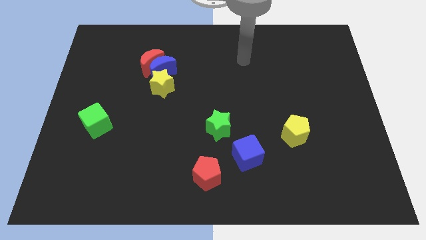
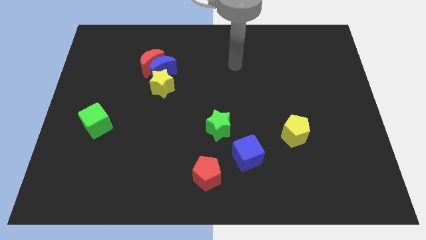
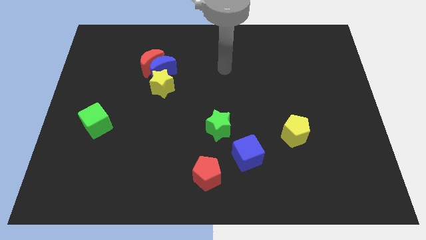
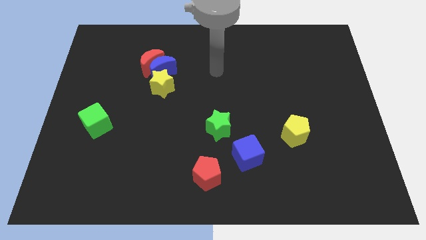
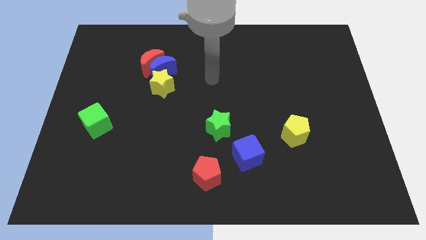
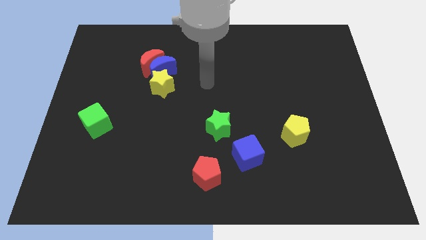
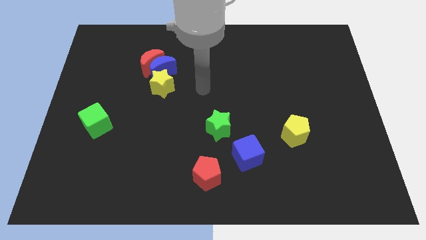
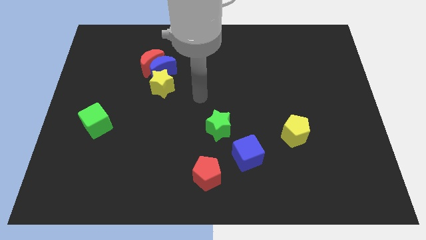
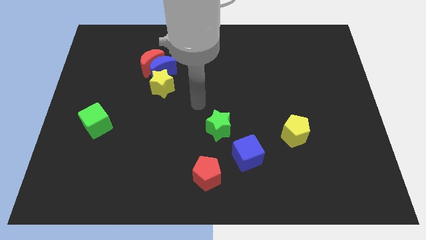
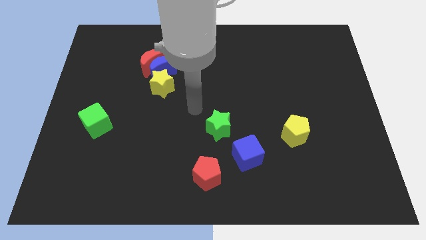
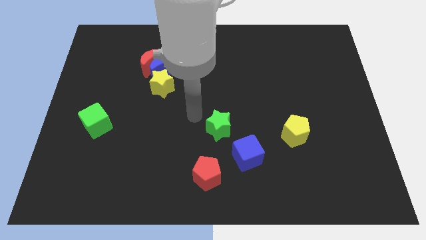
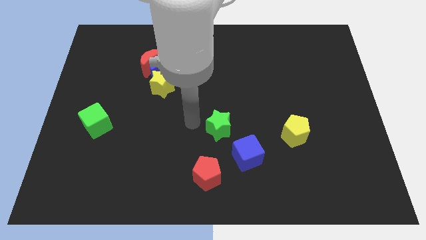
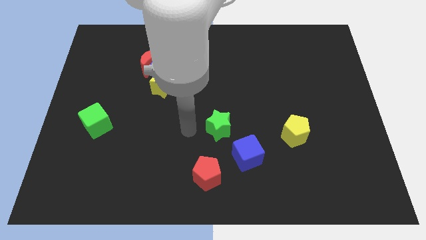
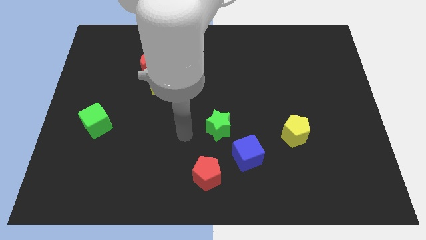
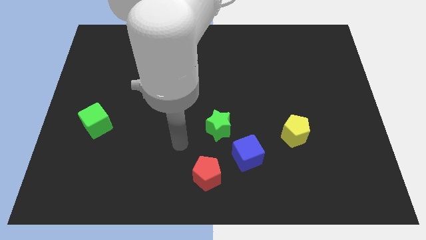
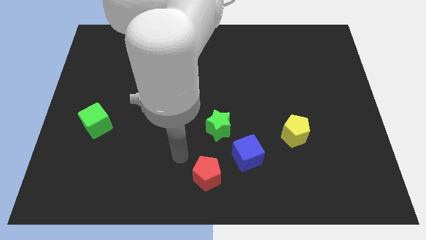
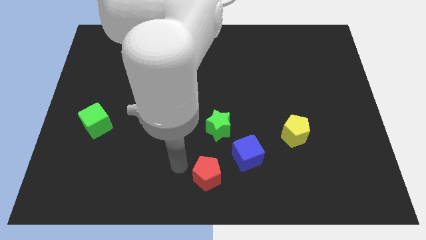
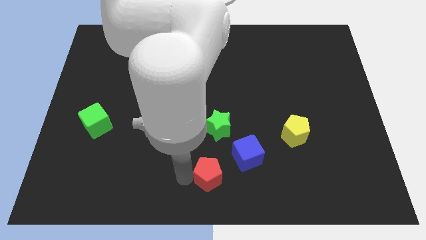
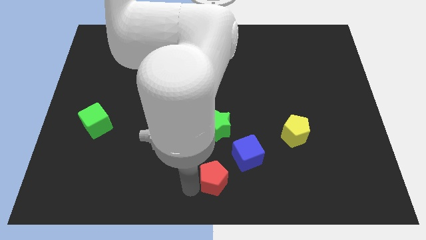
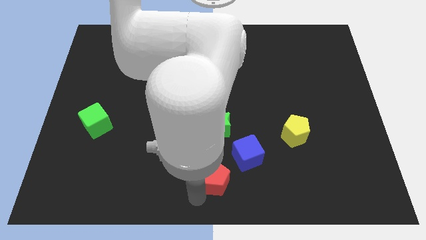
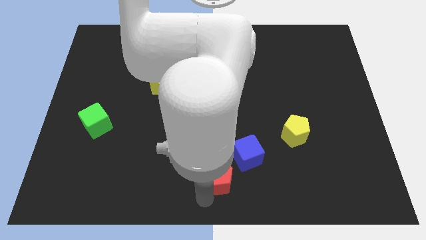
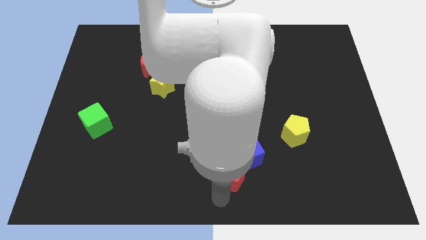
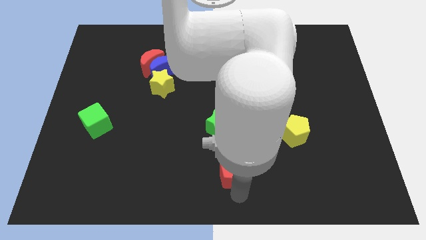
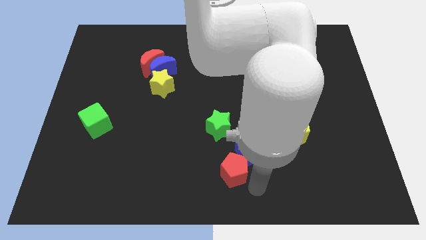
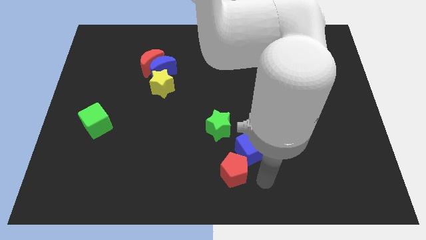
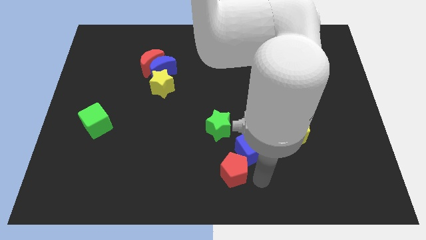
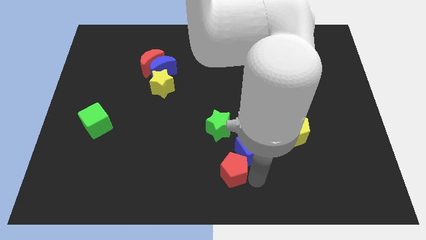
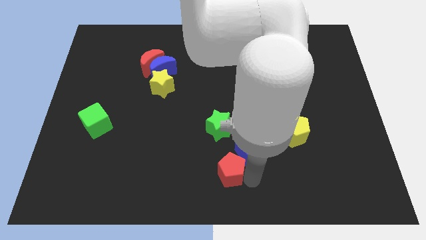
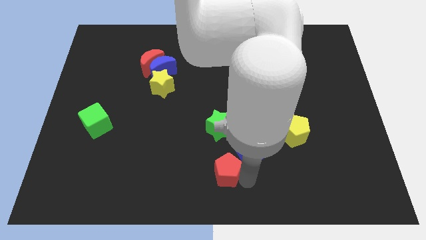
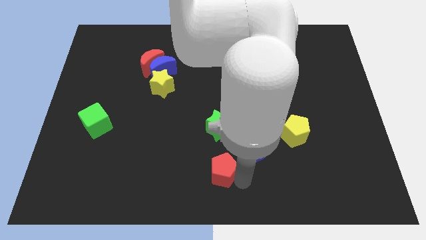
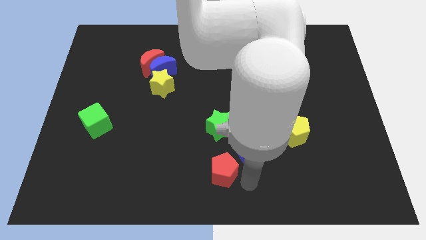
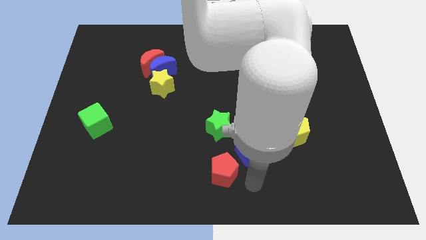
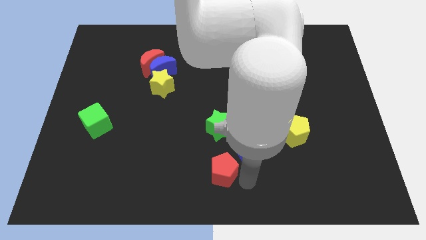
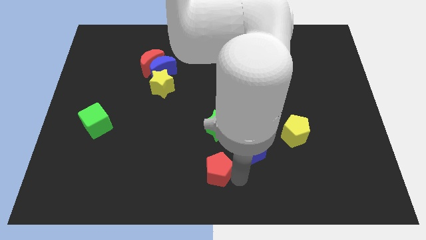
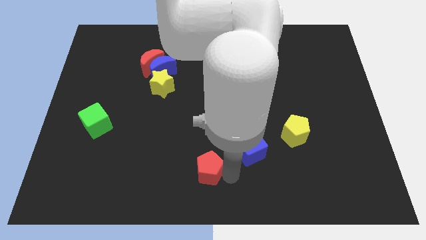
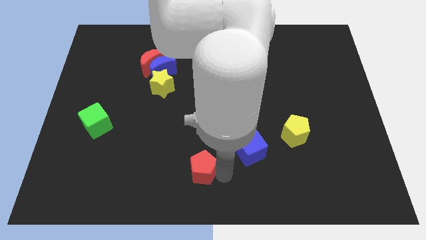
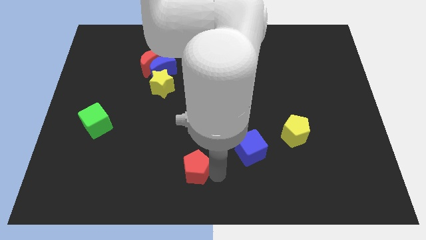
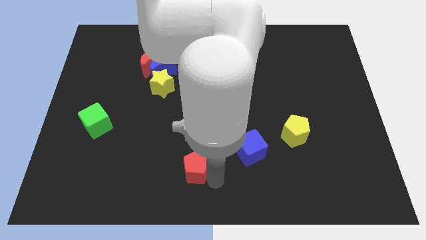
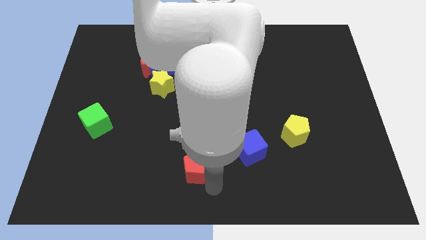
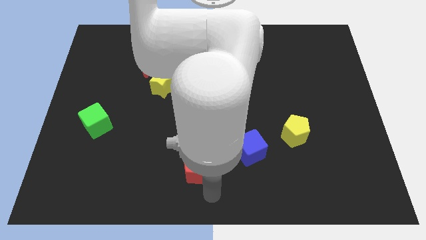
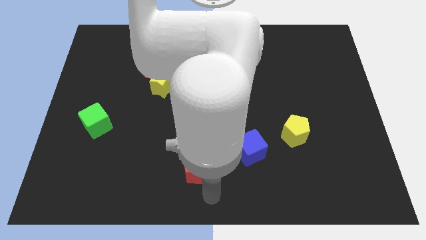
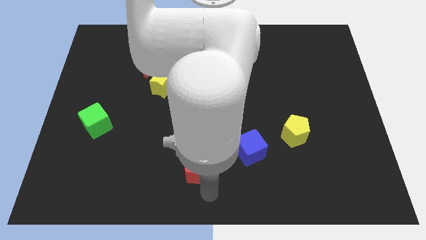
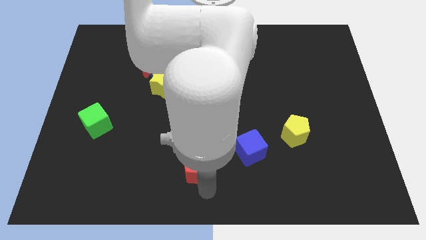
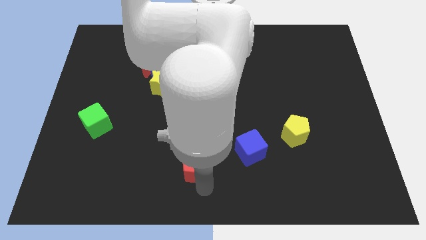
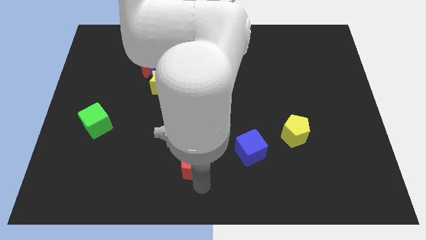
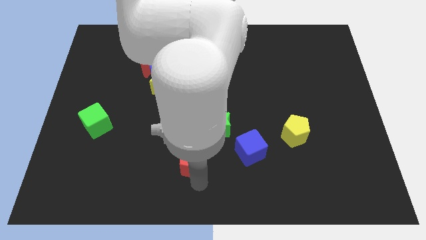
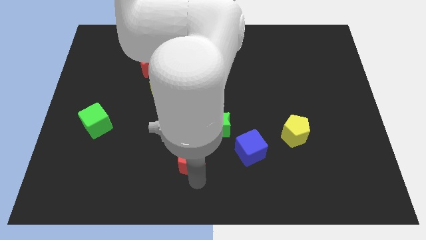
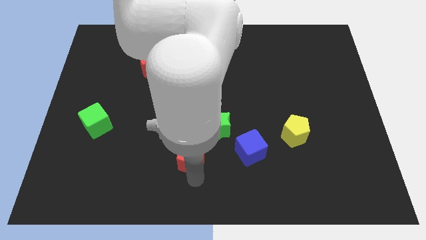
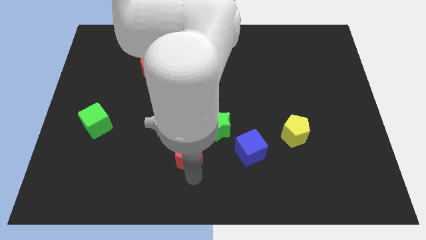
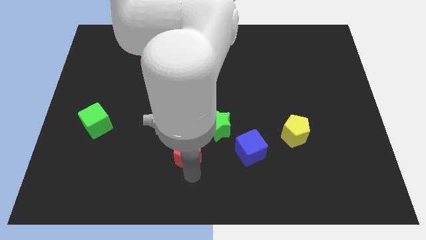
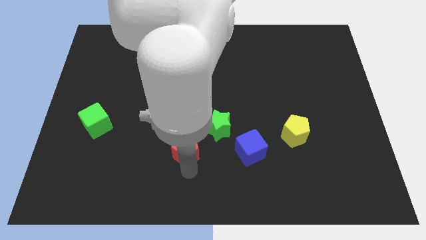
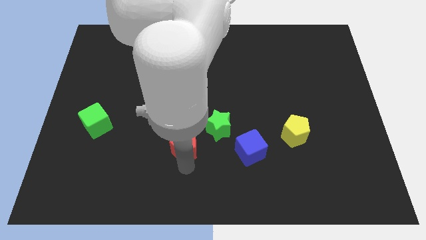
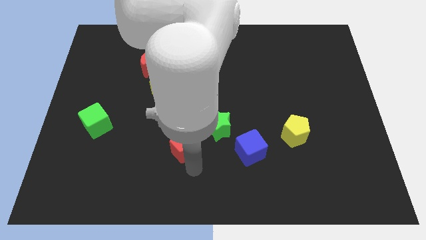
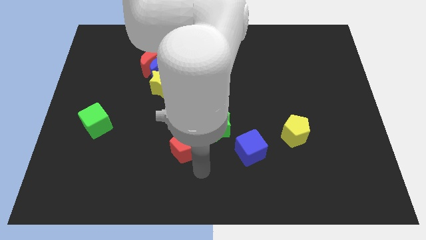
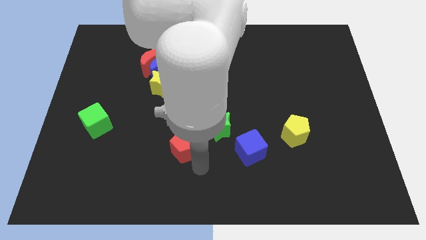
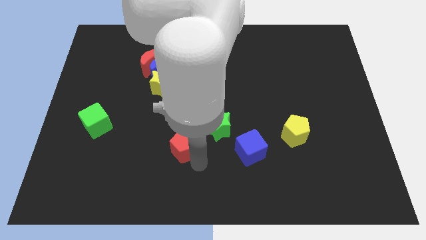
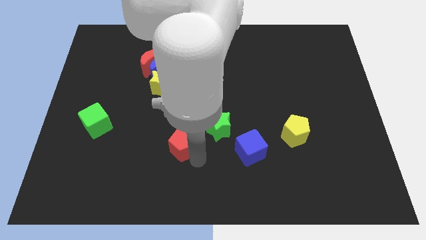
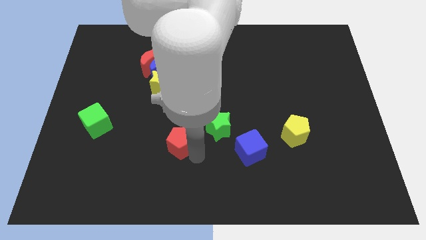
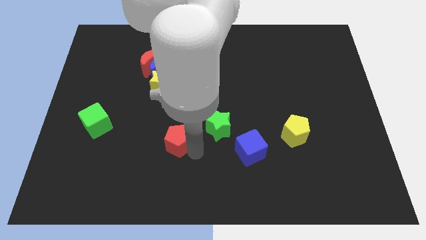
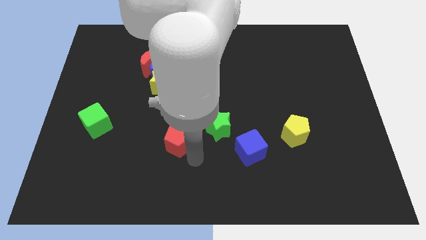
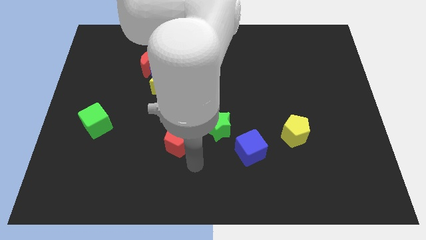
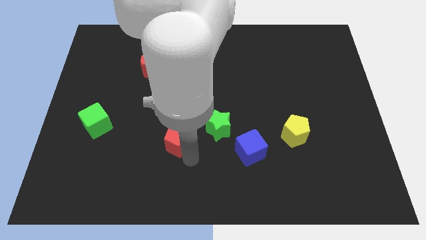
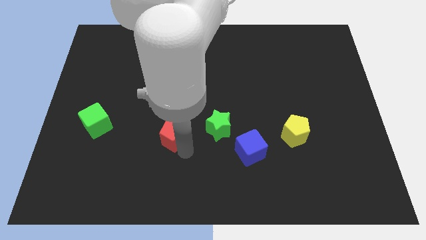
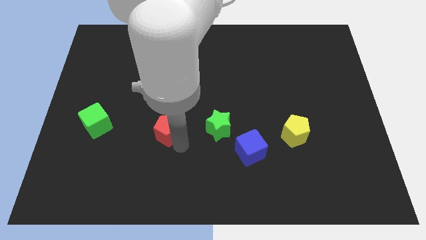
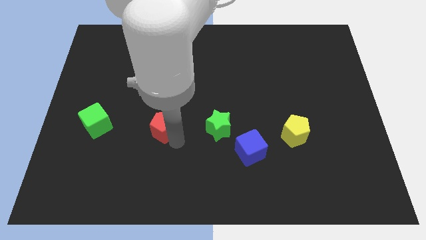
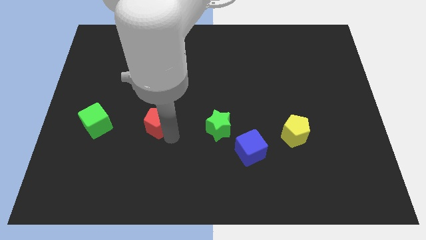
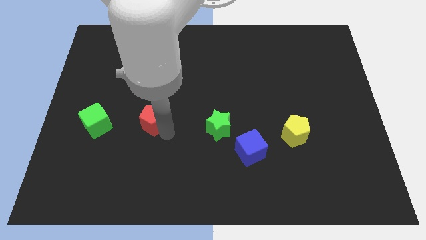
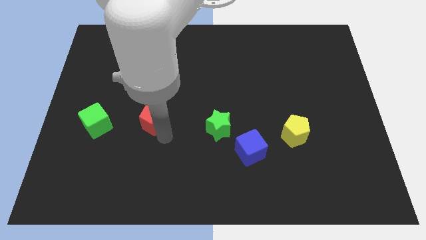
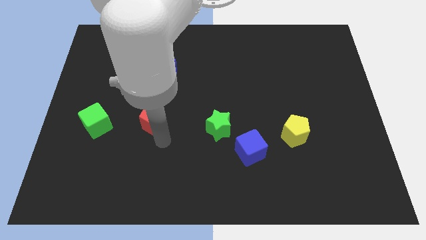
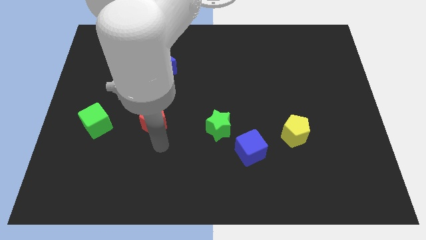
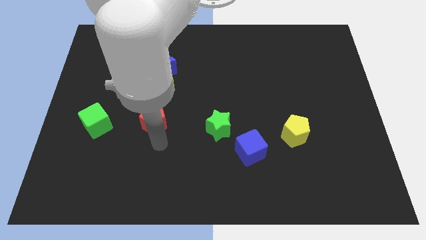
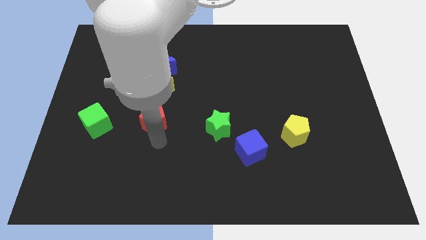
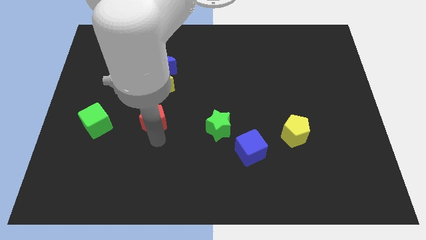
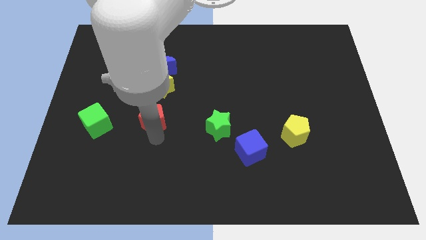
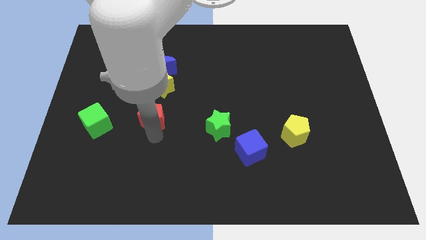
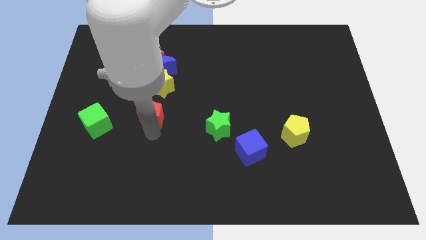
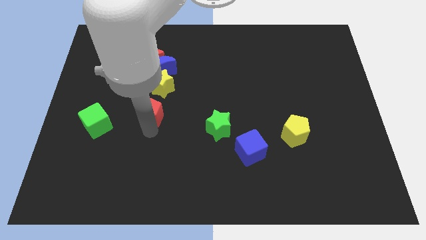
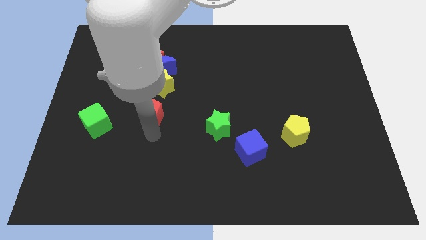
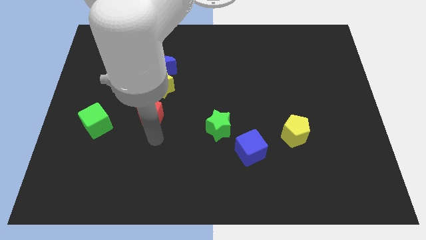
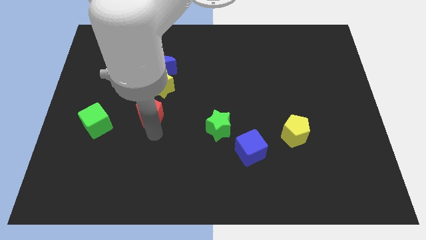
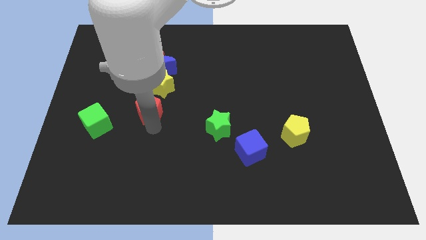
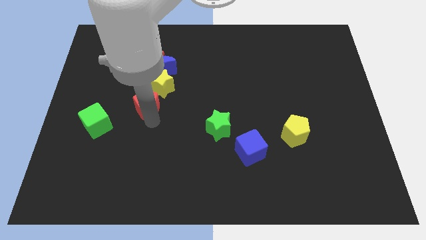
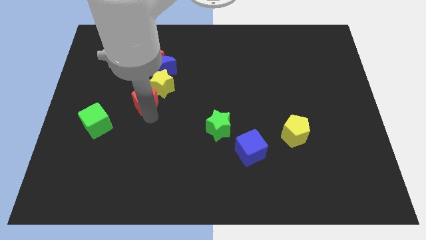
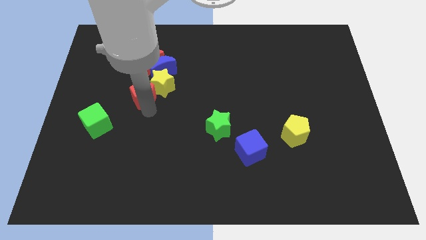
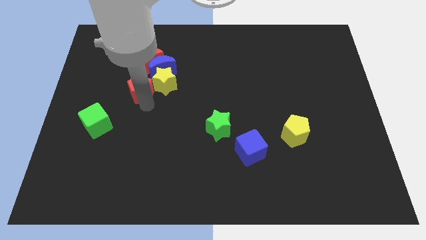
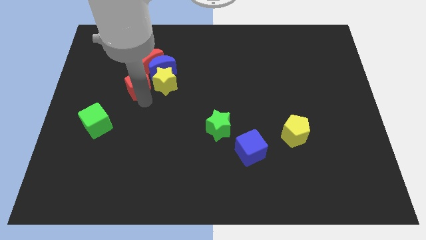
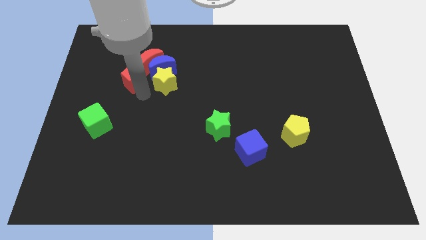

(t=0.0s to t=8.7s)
slide the red pentagon to the left of the blue moon
